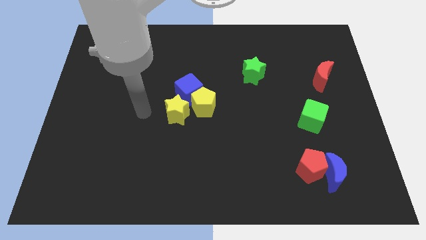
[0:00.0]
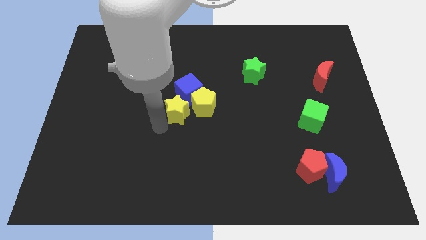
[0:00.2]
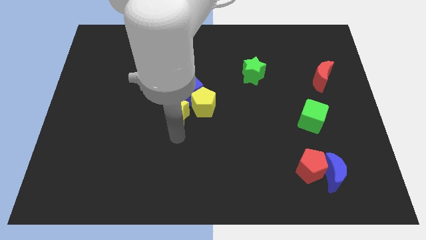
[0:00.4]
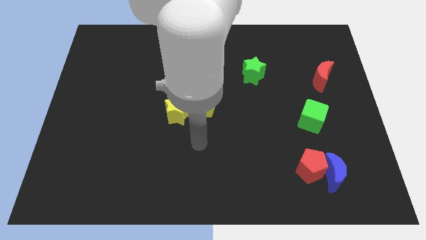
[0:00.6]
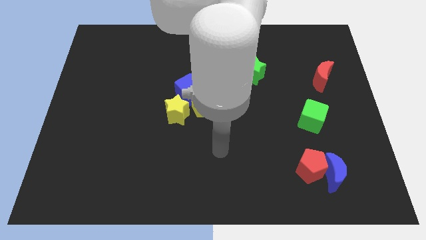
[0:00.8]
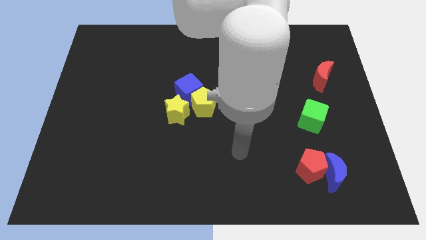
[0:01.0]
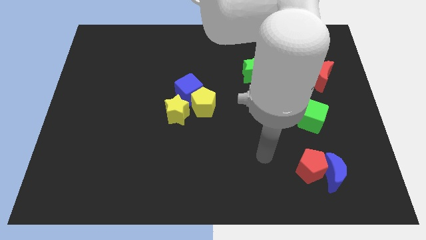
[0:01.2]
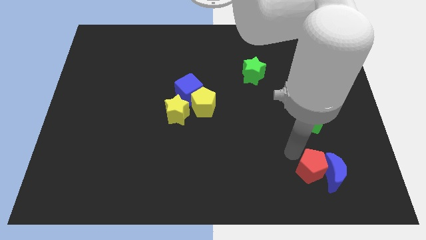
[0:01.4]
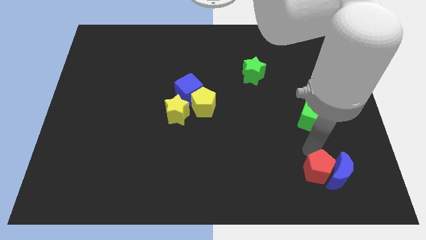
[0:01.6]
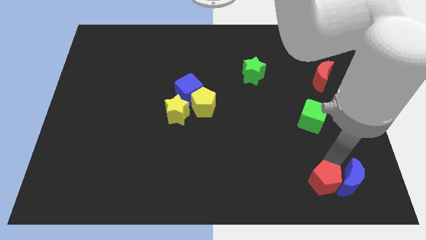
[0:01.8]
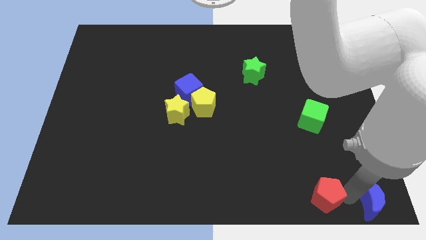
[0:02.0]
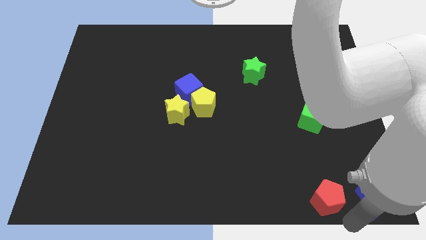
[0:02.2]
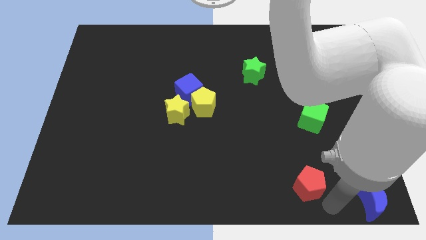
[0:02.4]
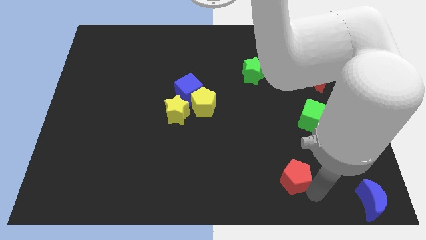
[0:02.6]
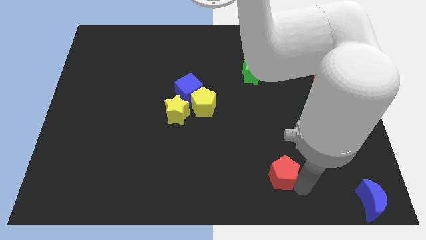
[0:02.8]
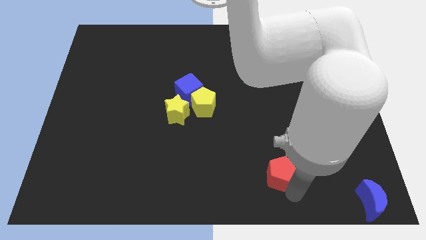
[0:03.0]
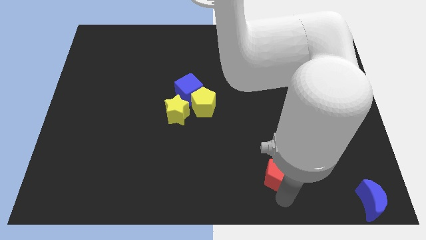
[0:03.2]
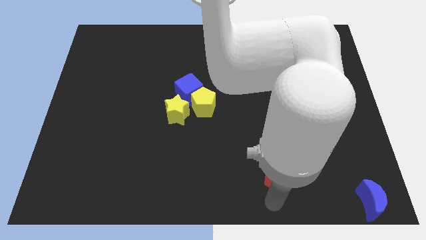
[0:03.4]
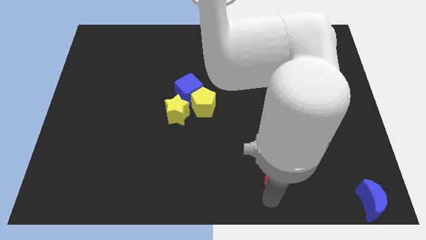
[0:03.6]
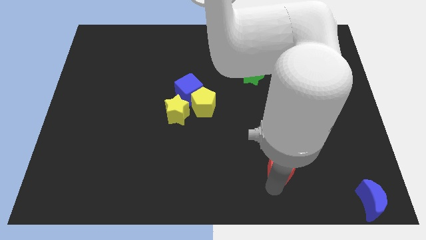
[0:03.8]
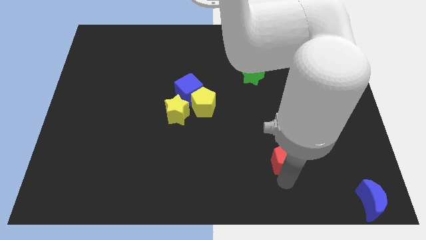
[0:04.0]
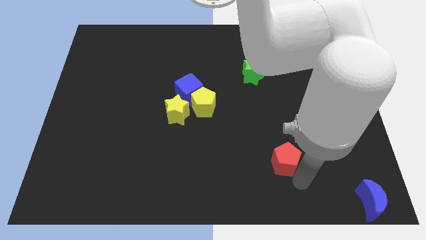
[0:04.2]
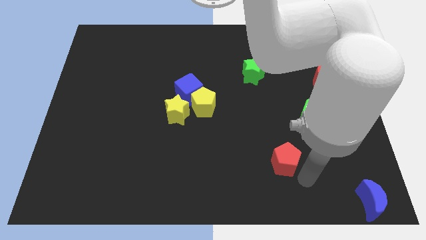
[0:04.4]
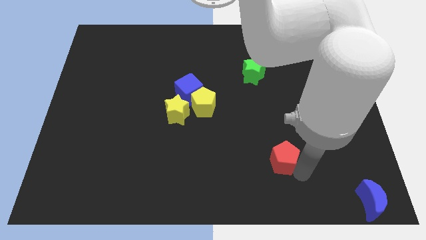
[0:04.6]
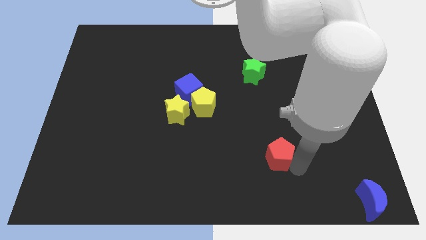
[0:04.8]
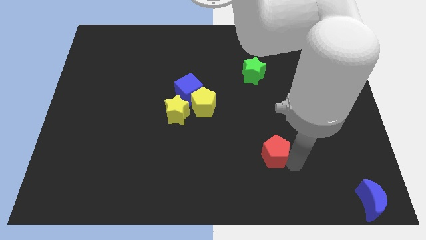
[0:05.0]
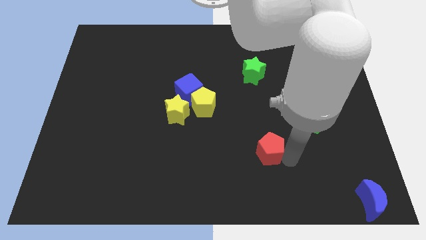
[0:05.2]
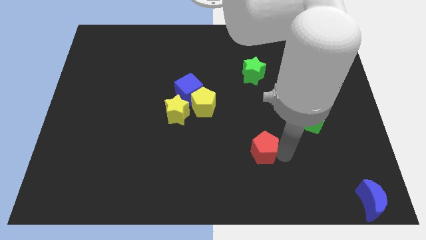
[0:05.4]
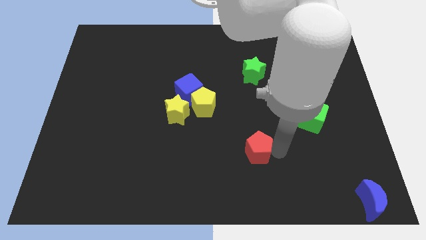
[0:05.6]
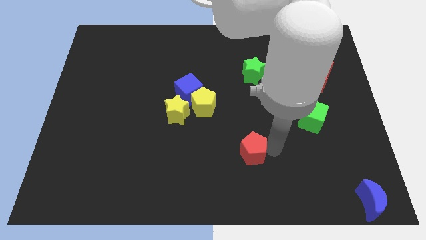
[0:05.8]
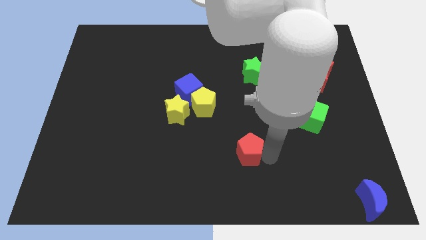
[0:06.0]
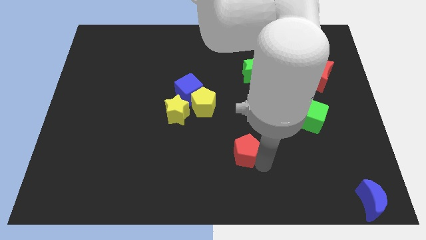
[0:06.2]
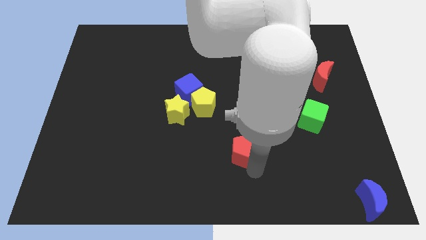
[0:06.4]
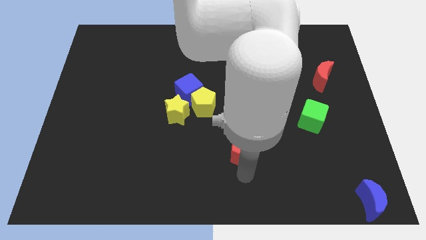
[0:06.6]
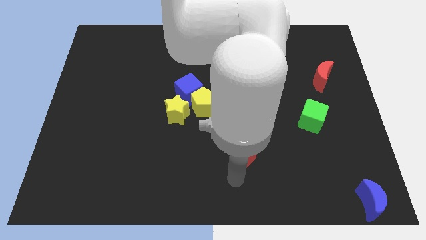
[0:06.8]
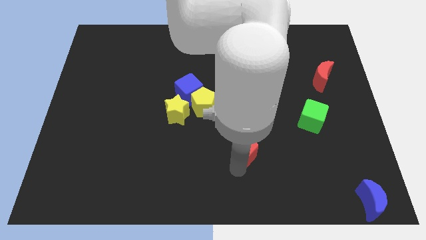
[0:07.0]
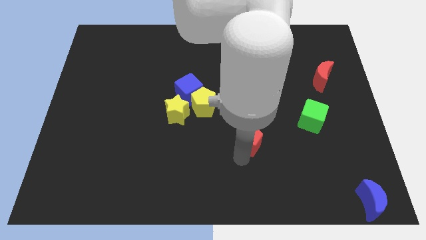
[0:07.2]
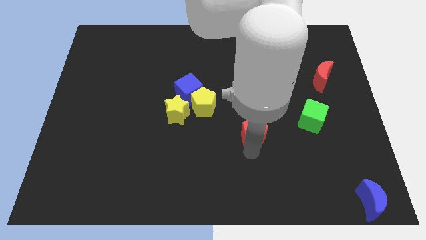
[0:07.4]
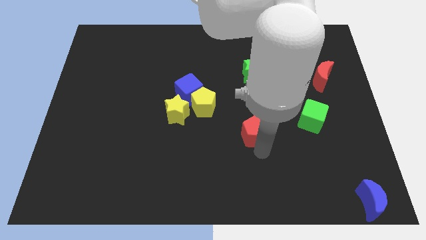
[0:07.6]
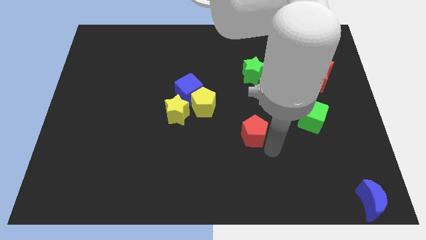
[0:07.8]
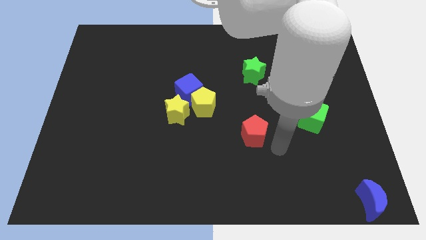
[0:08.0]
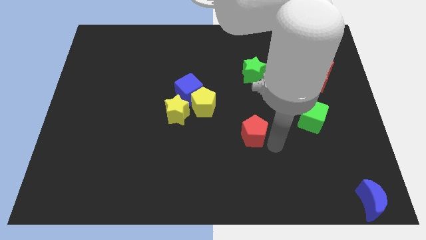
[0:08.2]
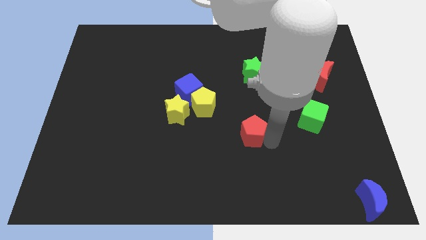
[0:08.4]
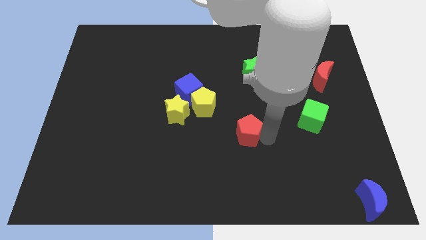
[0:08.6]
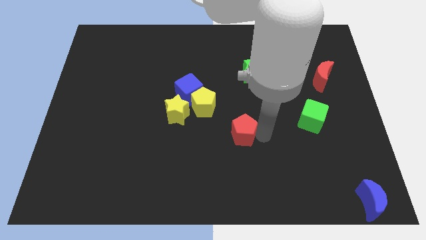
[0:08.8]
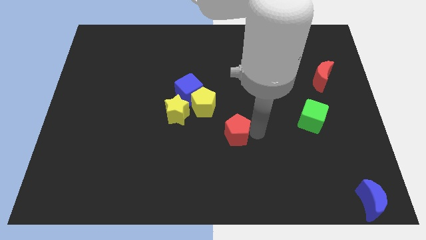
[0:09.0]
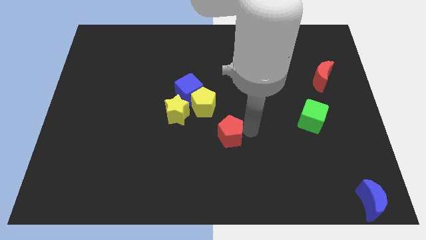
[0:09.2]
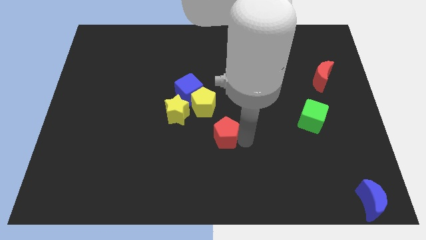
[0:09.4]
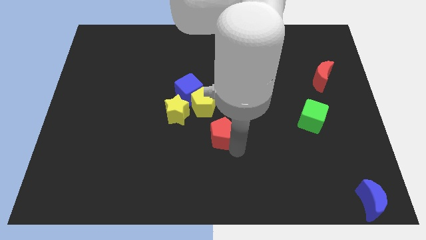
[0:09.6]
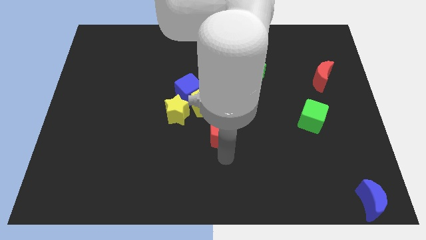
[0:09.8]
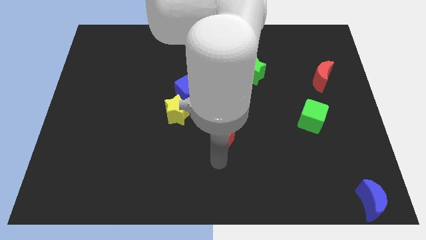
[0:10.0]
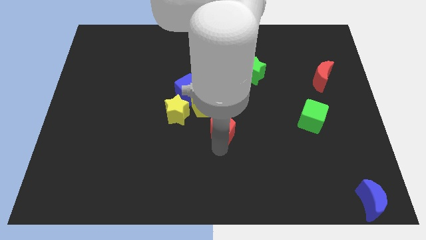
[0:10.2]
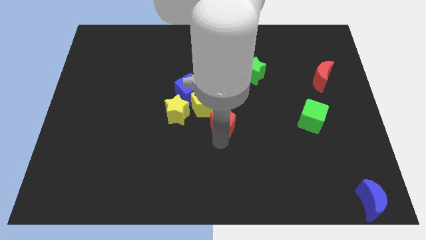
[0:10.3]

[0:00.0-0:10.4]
put the red pentagon to the right side of the yellow star

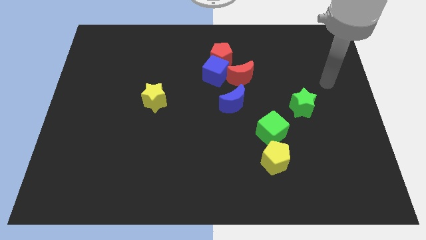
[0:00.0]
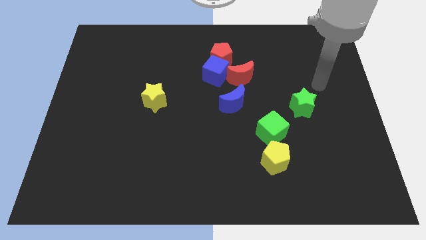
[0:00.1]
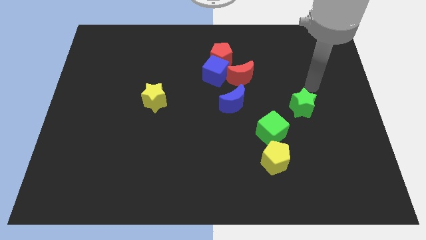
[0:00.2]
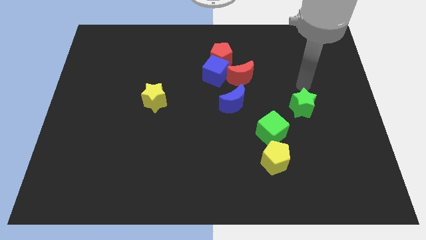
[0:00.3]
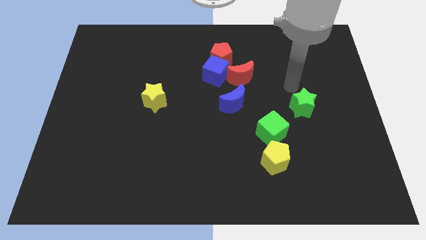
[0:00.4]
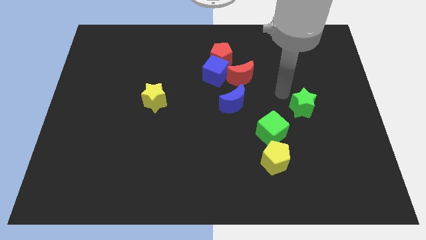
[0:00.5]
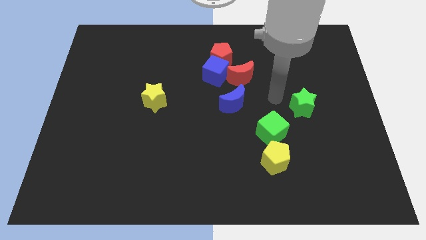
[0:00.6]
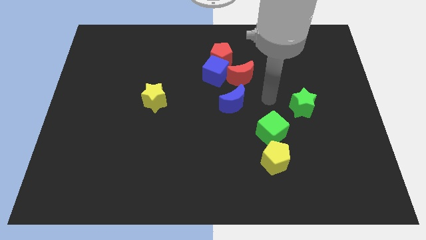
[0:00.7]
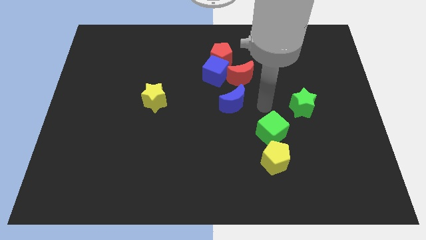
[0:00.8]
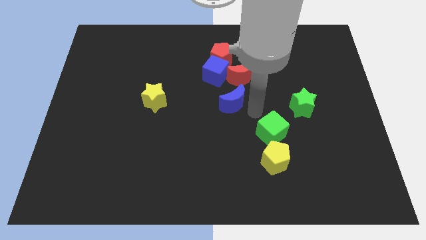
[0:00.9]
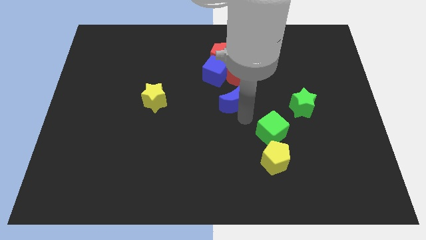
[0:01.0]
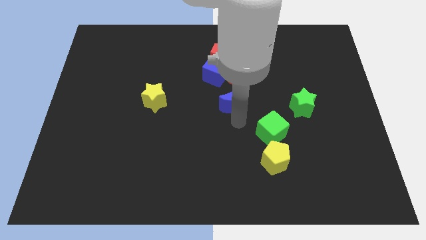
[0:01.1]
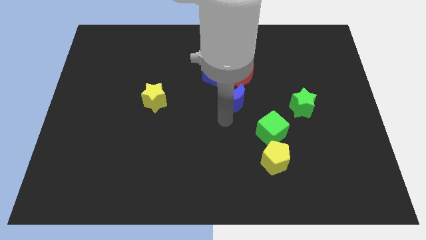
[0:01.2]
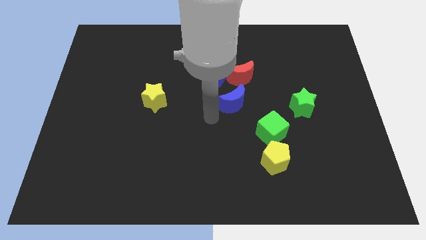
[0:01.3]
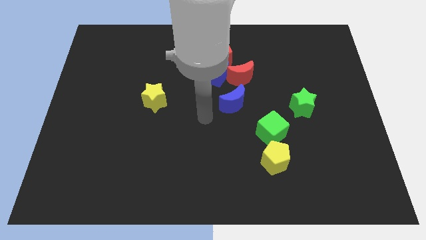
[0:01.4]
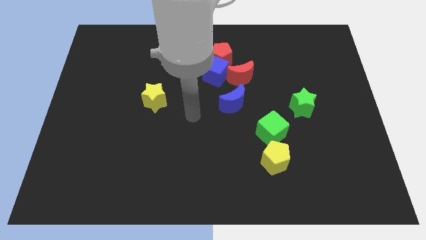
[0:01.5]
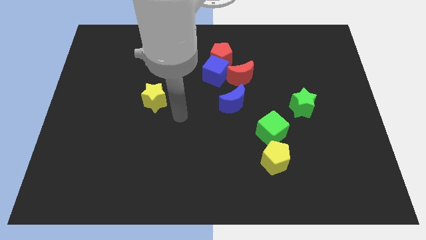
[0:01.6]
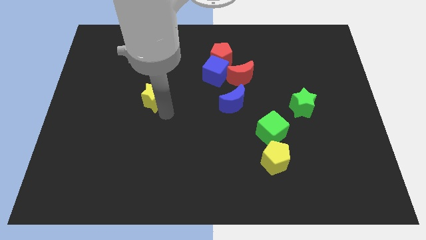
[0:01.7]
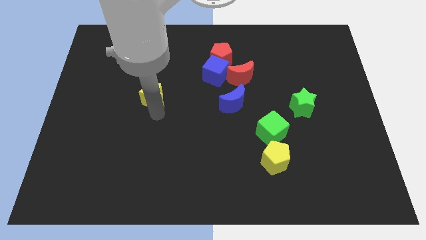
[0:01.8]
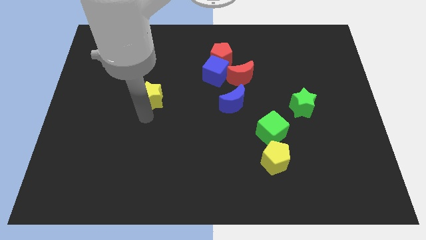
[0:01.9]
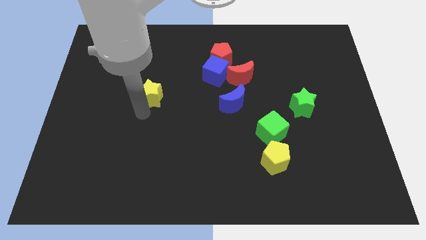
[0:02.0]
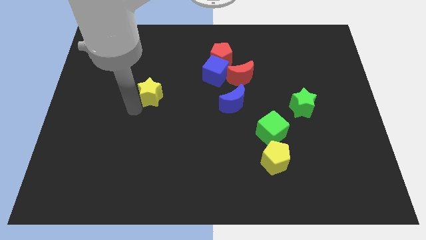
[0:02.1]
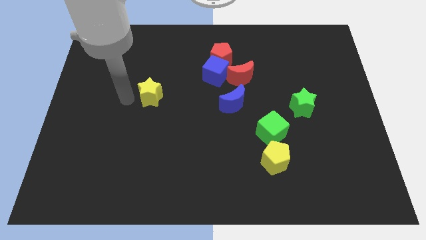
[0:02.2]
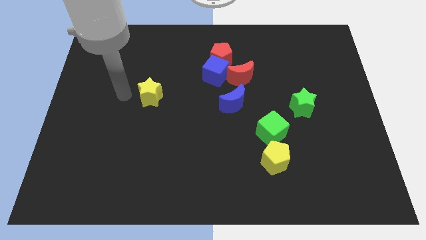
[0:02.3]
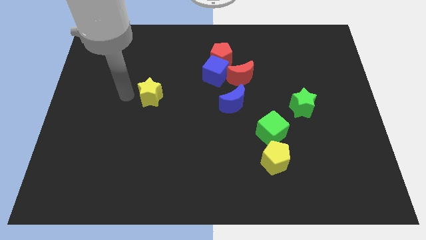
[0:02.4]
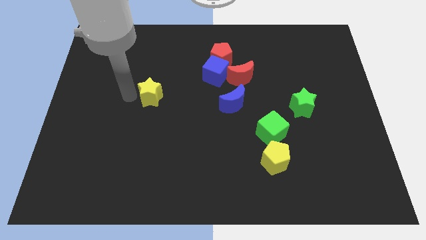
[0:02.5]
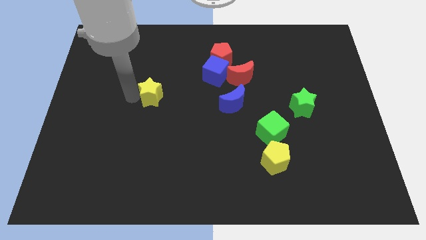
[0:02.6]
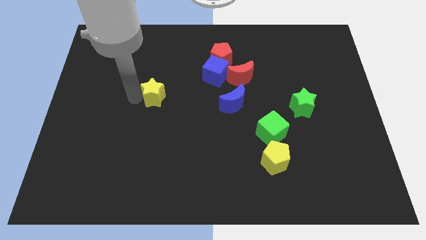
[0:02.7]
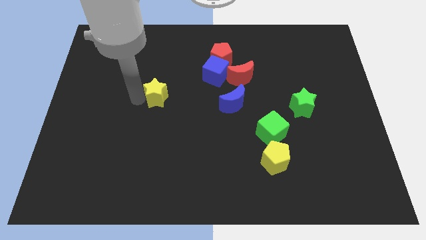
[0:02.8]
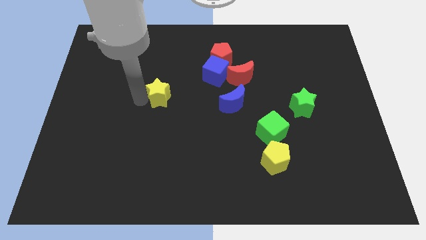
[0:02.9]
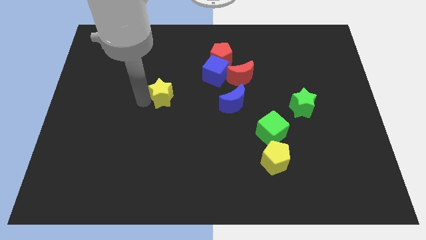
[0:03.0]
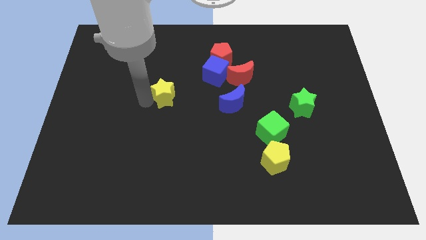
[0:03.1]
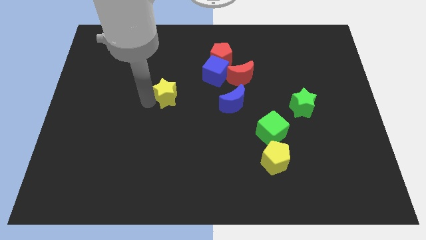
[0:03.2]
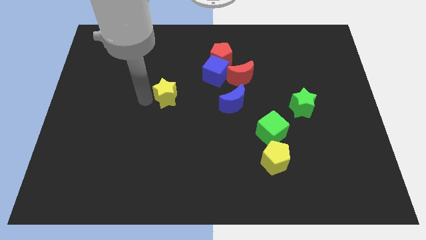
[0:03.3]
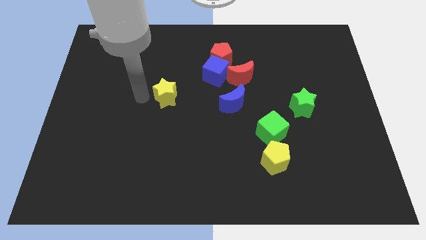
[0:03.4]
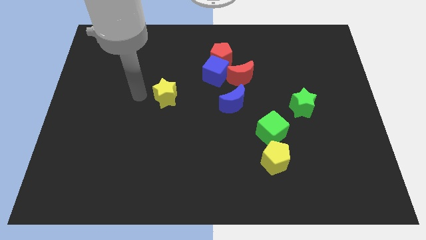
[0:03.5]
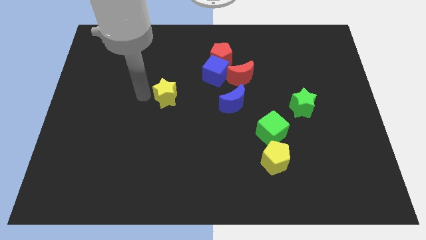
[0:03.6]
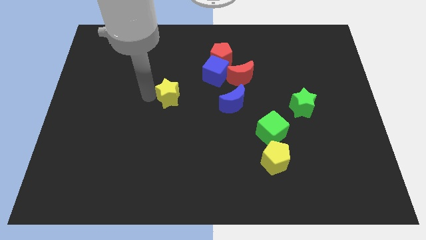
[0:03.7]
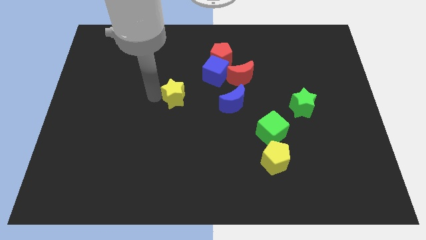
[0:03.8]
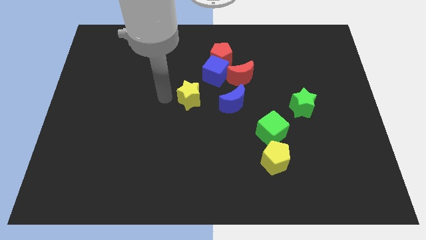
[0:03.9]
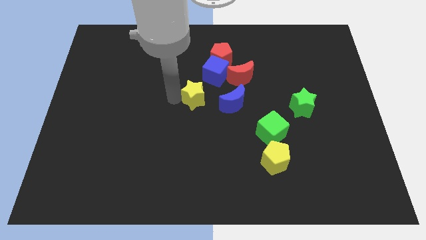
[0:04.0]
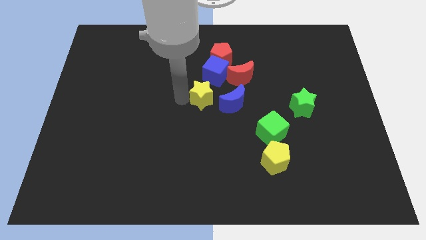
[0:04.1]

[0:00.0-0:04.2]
move the yellow star to the bottom left of the red moon
